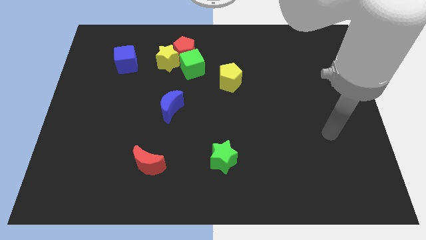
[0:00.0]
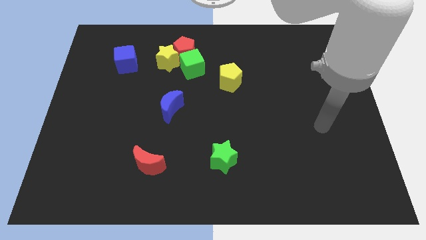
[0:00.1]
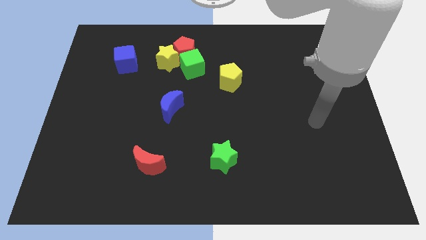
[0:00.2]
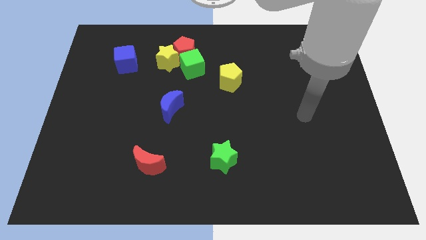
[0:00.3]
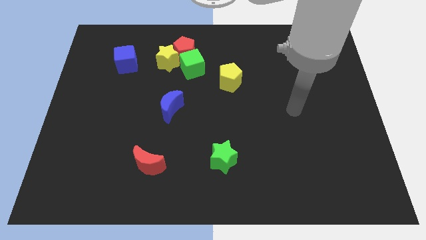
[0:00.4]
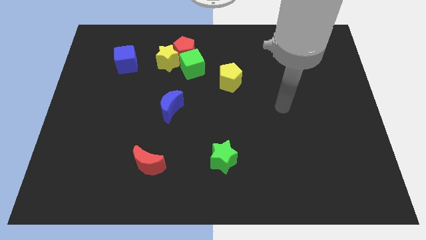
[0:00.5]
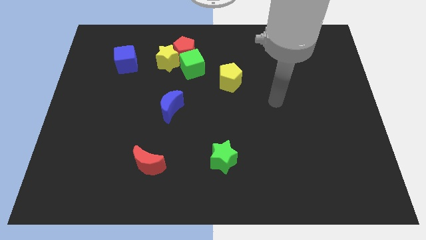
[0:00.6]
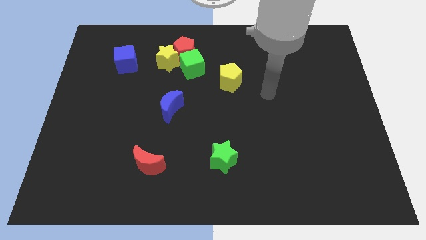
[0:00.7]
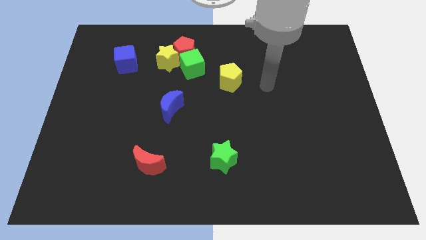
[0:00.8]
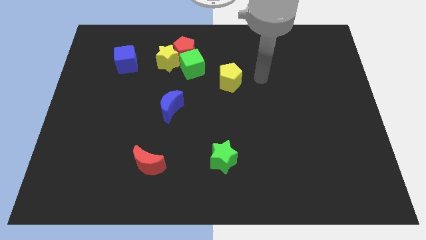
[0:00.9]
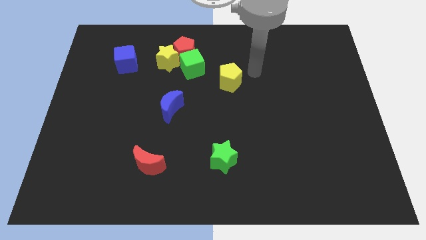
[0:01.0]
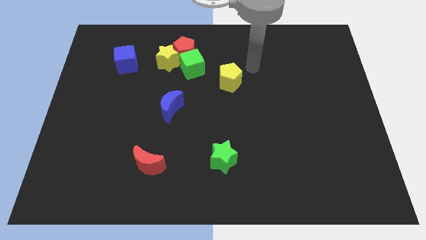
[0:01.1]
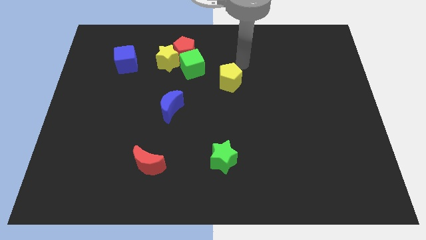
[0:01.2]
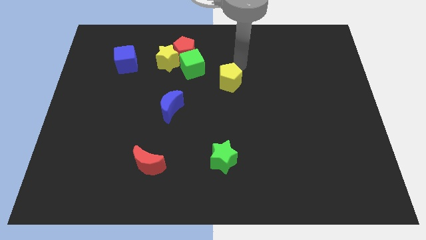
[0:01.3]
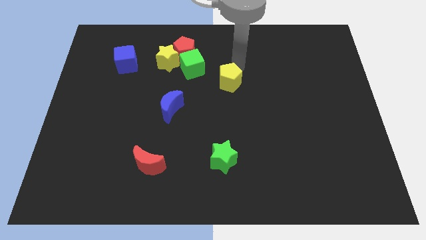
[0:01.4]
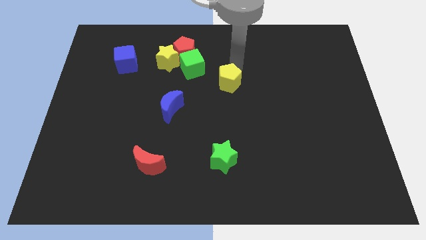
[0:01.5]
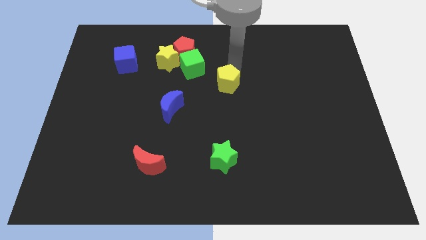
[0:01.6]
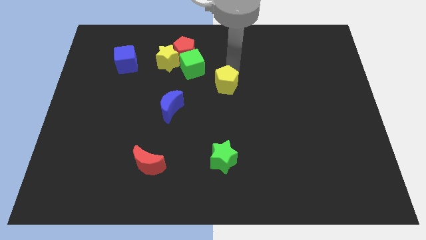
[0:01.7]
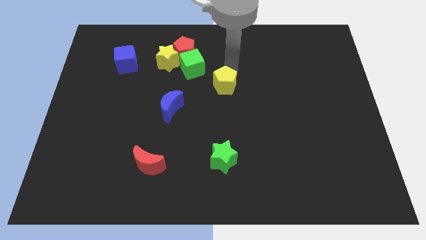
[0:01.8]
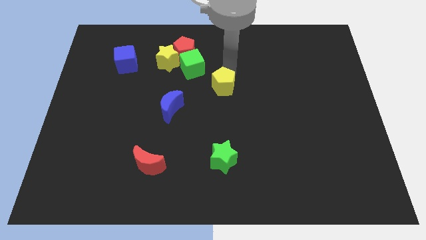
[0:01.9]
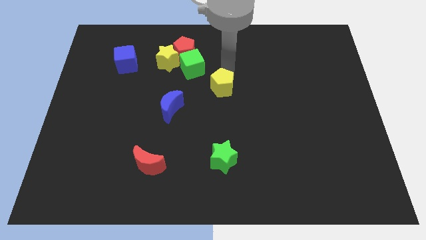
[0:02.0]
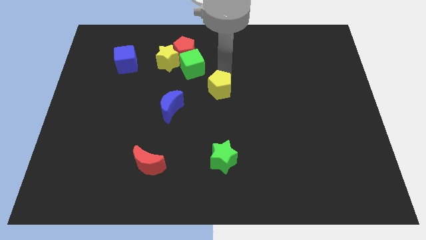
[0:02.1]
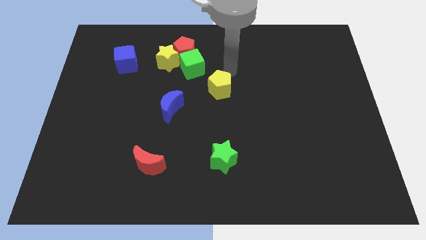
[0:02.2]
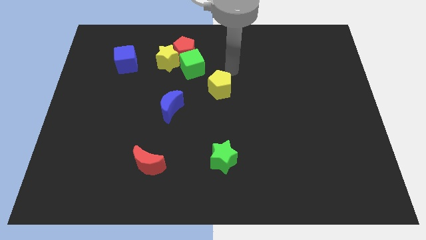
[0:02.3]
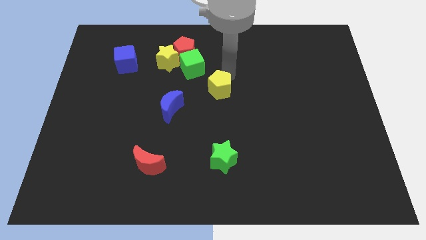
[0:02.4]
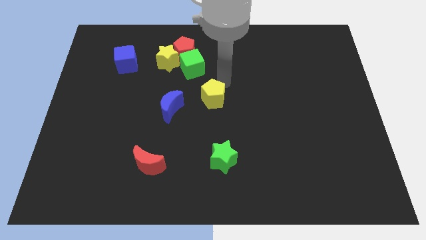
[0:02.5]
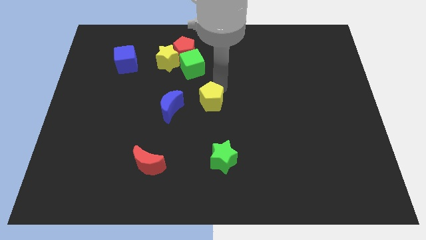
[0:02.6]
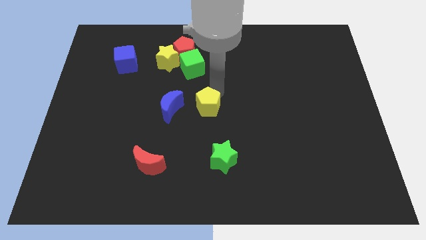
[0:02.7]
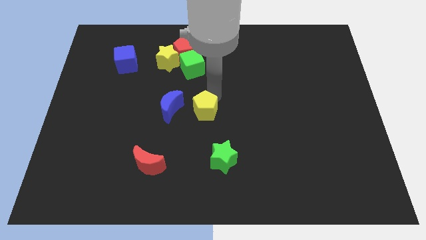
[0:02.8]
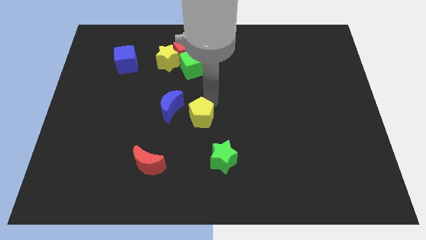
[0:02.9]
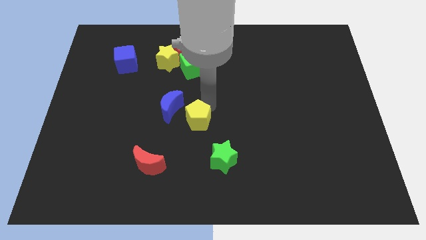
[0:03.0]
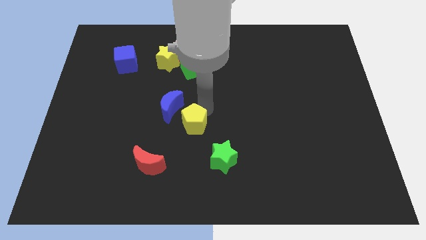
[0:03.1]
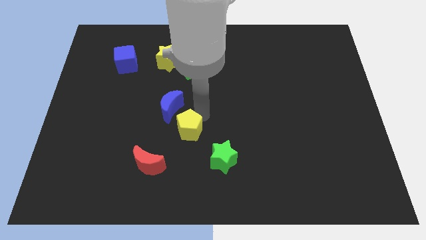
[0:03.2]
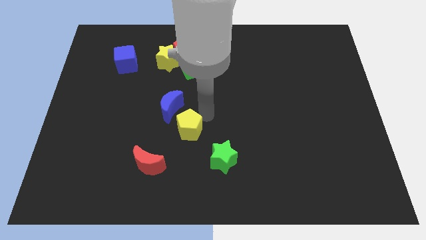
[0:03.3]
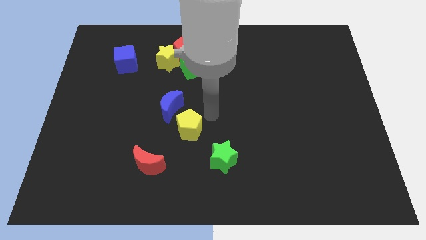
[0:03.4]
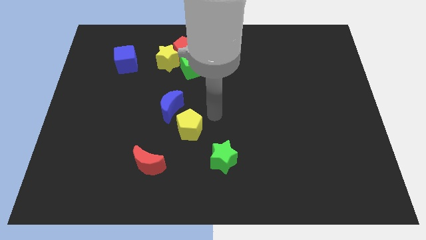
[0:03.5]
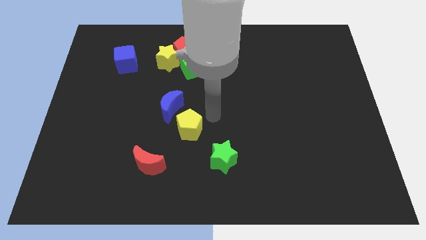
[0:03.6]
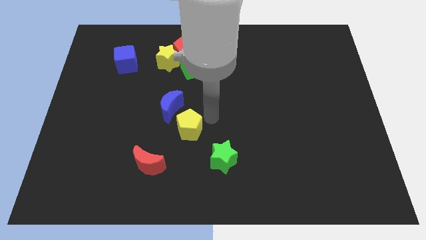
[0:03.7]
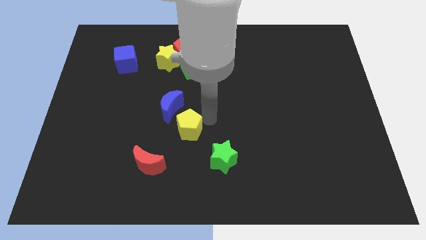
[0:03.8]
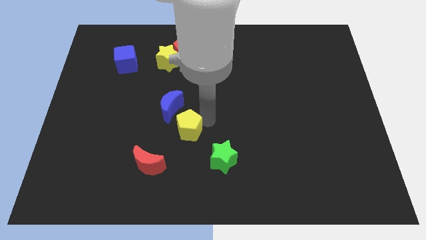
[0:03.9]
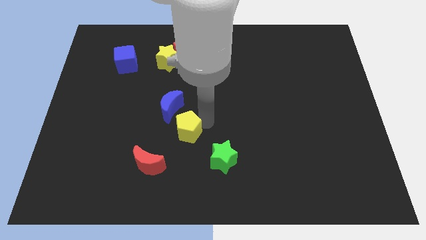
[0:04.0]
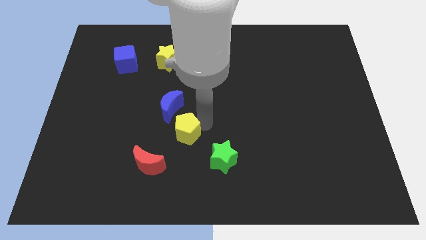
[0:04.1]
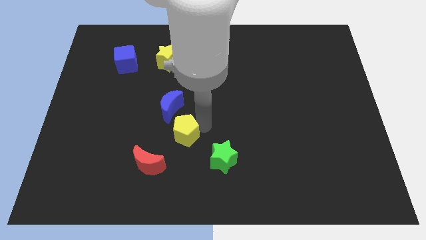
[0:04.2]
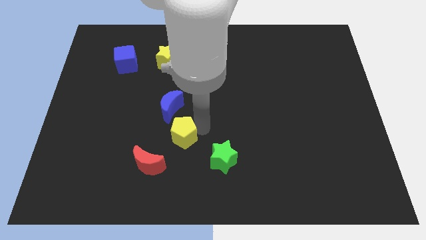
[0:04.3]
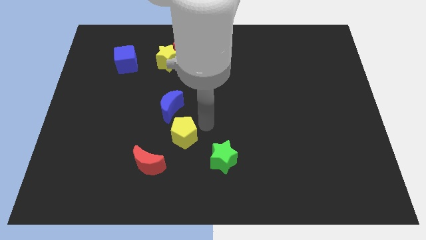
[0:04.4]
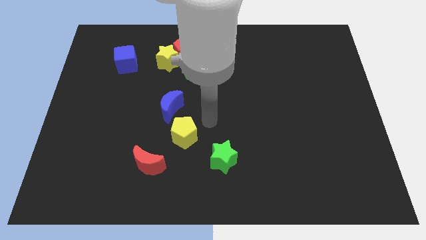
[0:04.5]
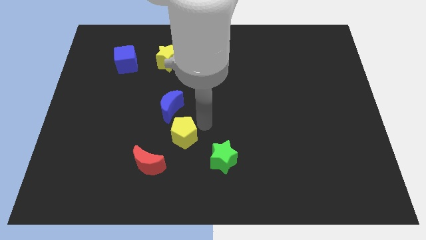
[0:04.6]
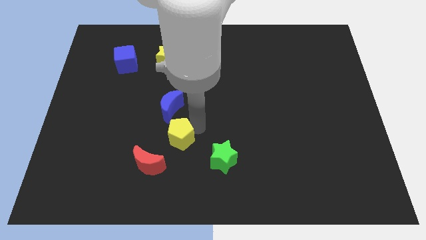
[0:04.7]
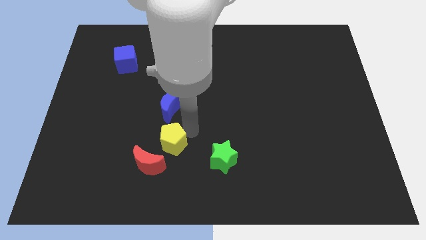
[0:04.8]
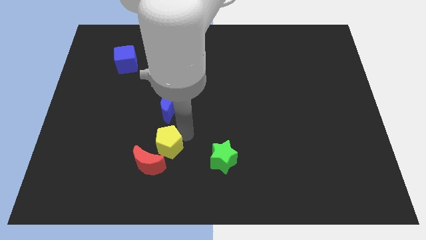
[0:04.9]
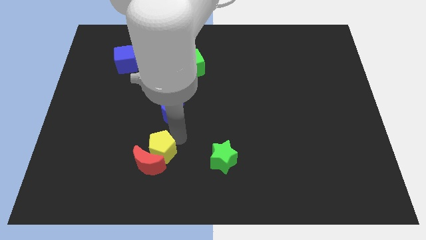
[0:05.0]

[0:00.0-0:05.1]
push the yellow pentagon towards the red moon

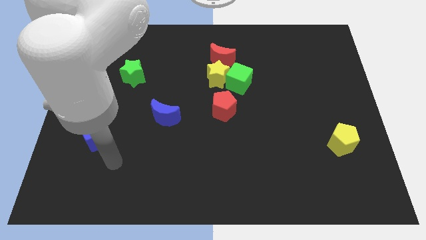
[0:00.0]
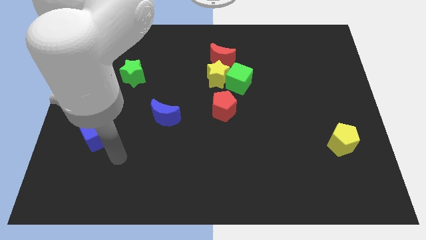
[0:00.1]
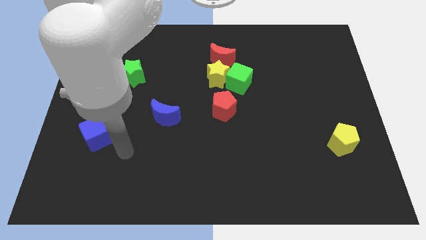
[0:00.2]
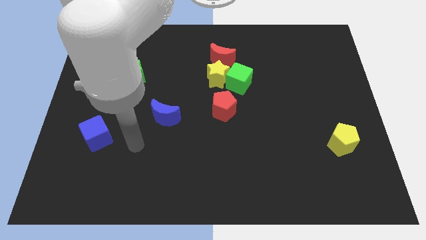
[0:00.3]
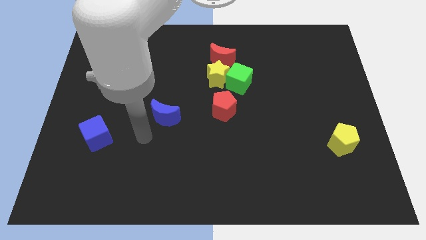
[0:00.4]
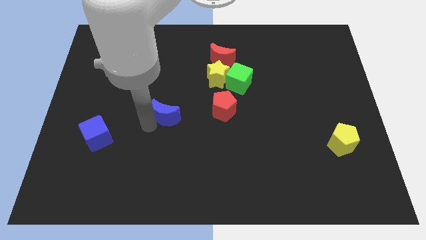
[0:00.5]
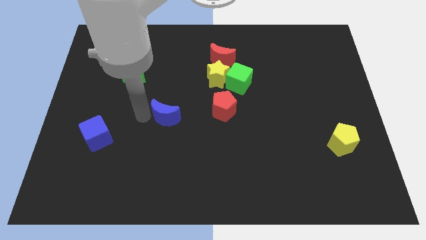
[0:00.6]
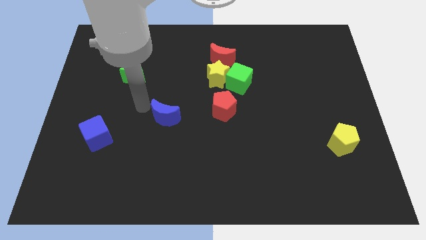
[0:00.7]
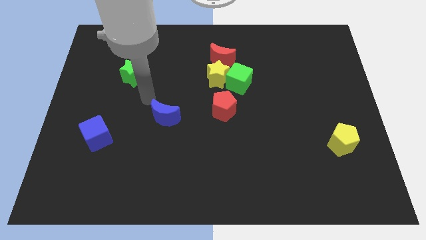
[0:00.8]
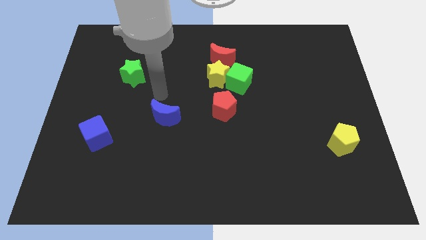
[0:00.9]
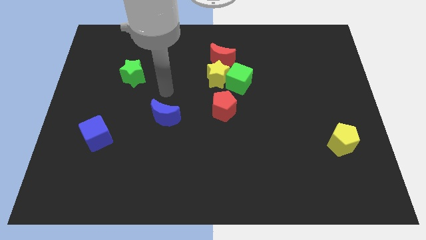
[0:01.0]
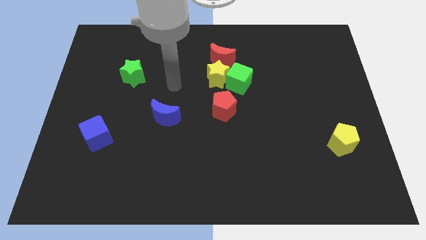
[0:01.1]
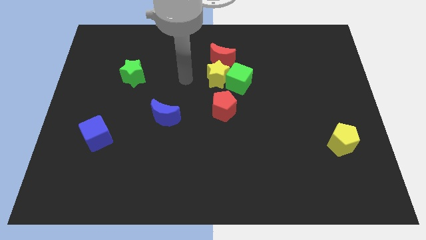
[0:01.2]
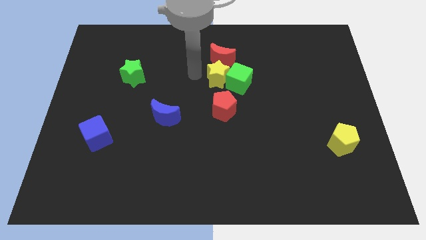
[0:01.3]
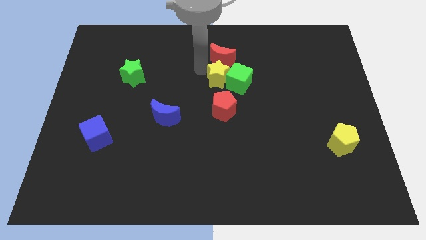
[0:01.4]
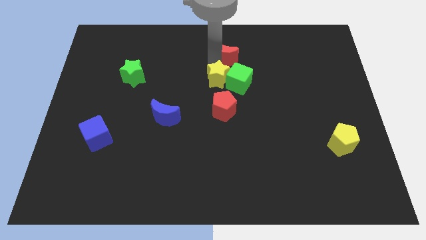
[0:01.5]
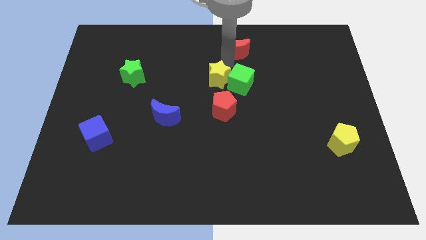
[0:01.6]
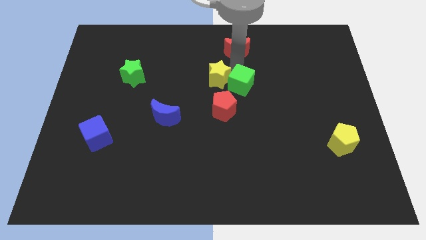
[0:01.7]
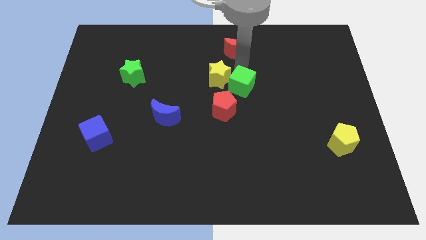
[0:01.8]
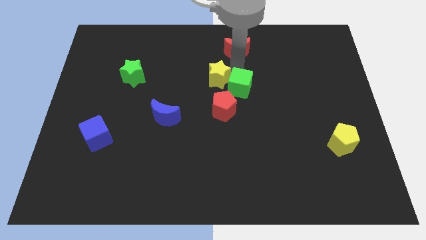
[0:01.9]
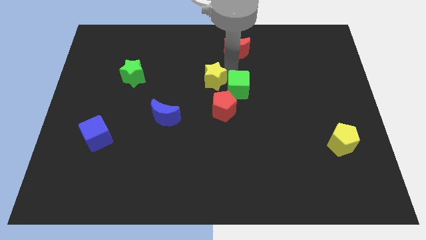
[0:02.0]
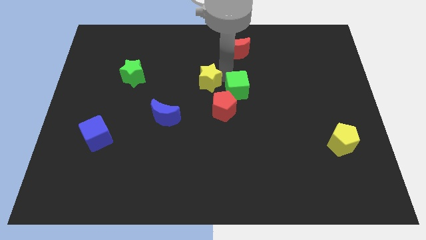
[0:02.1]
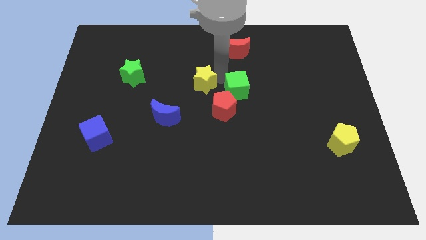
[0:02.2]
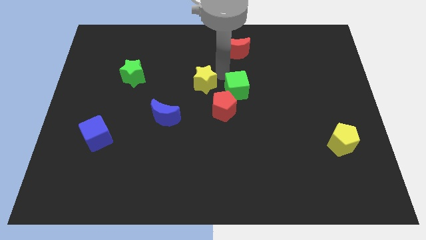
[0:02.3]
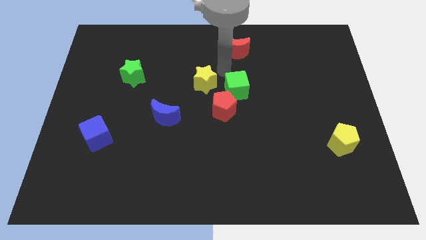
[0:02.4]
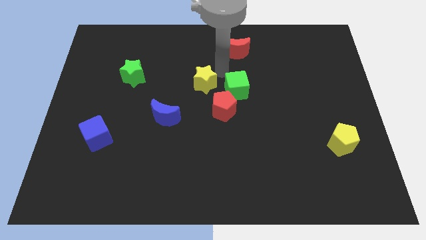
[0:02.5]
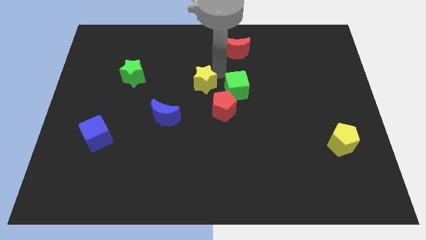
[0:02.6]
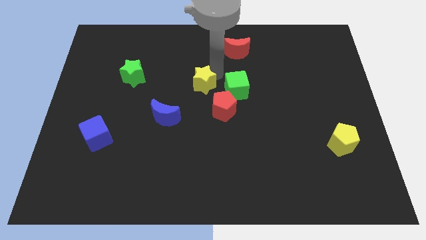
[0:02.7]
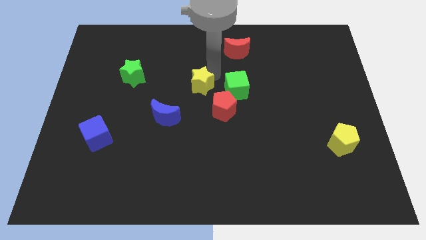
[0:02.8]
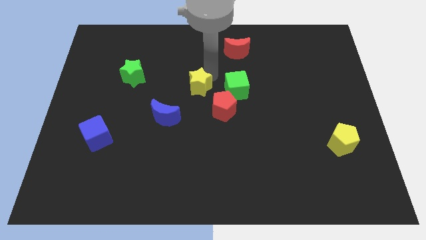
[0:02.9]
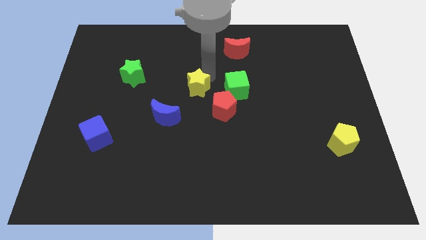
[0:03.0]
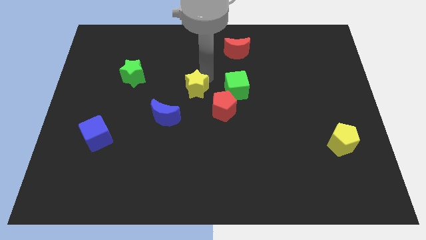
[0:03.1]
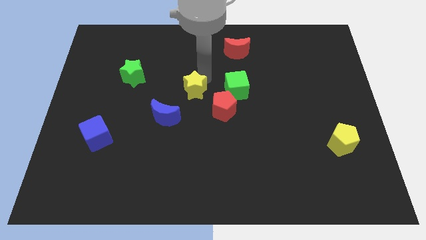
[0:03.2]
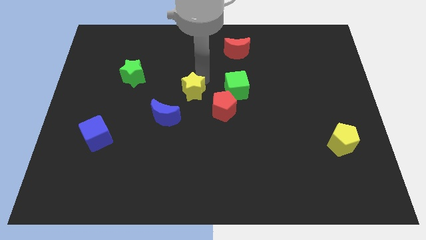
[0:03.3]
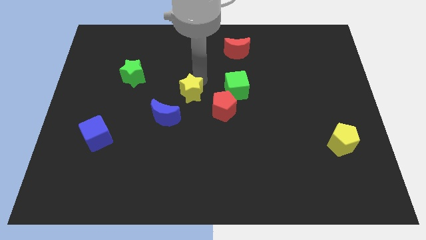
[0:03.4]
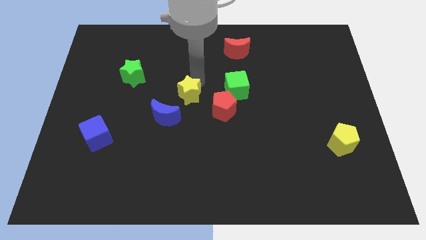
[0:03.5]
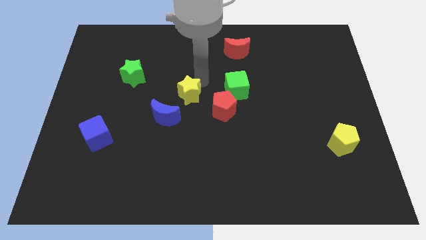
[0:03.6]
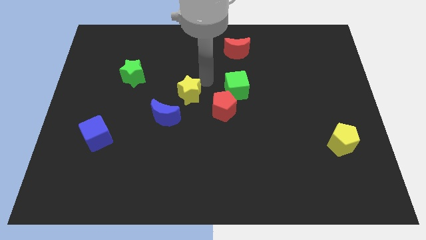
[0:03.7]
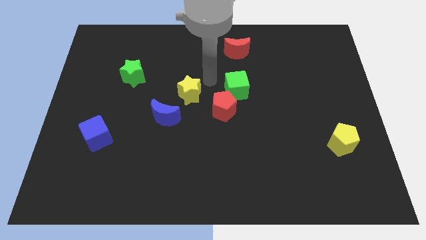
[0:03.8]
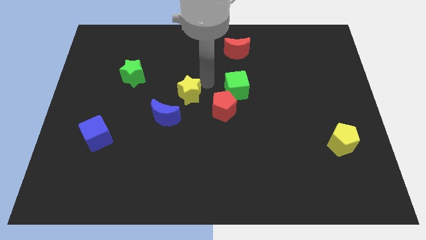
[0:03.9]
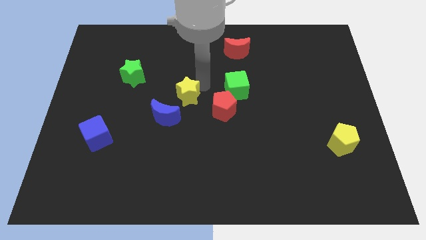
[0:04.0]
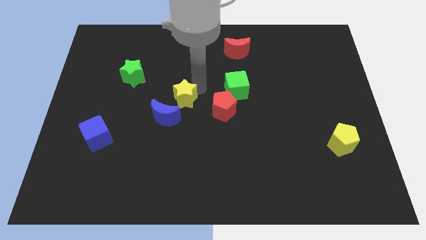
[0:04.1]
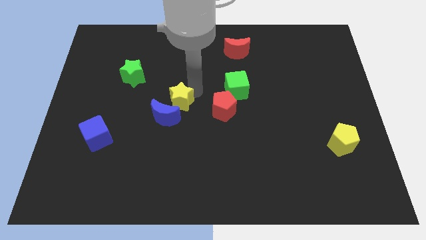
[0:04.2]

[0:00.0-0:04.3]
slide the yellow star towards the blue moon
